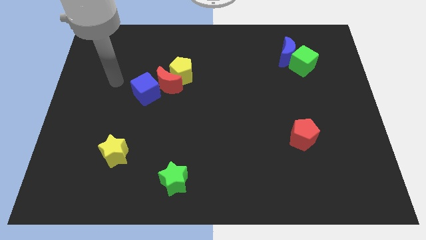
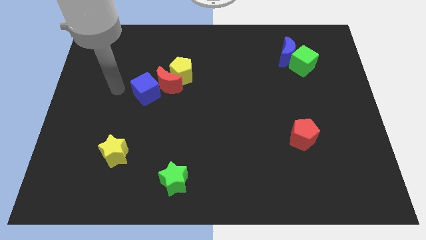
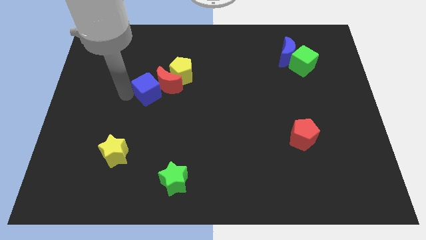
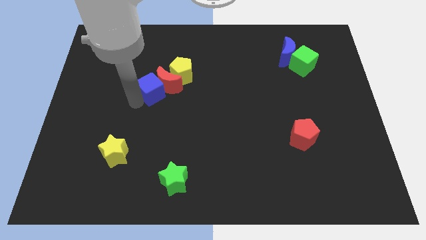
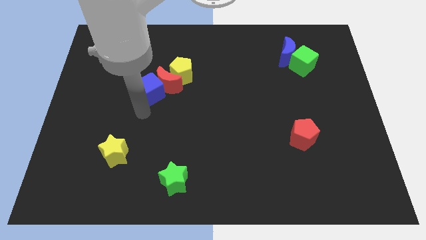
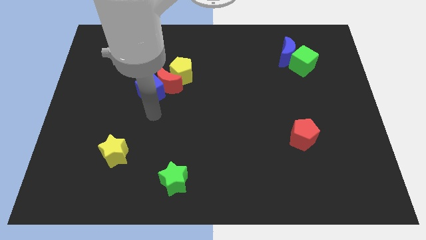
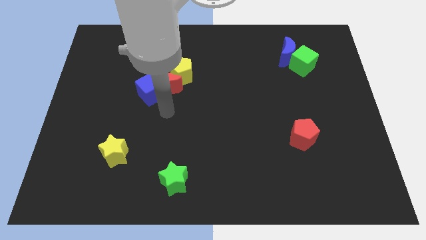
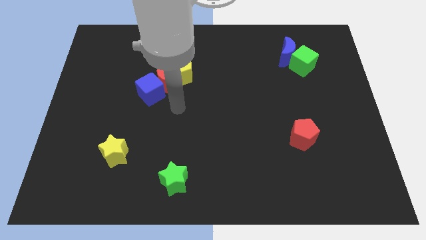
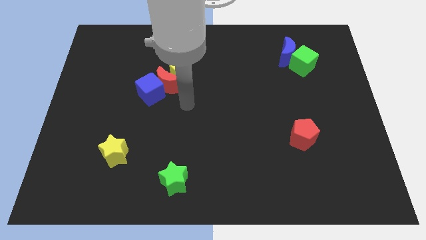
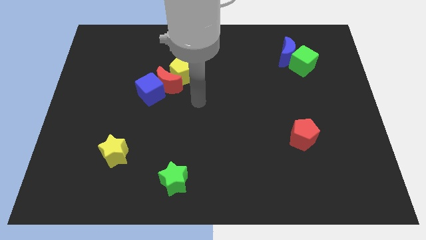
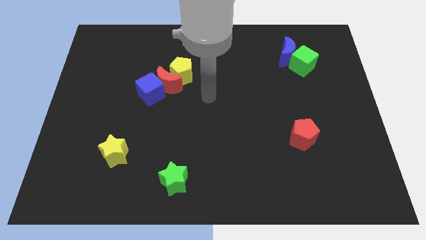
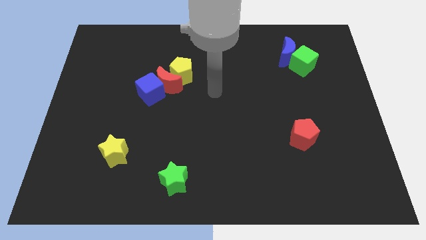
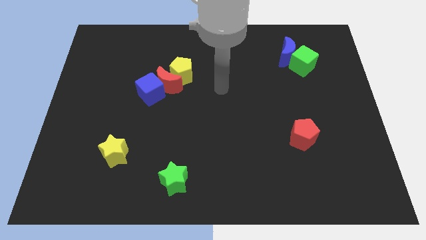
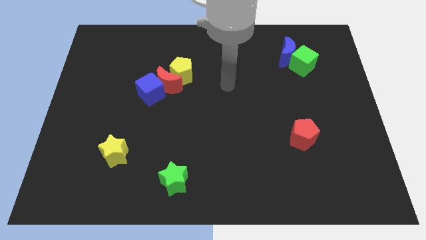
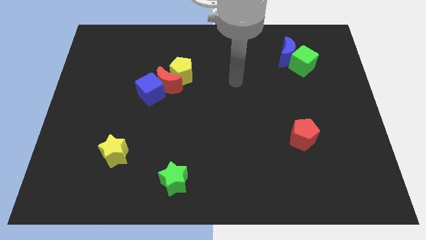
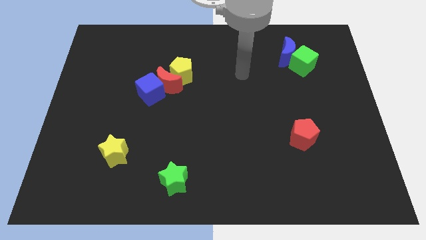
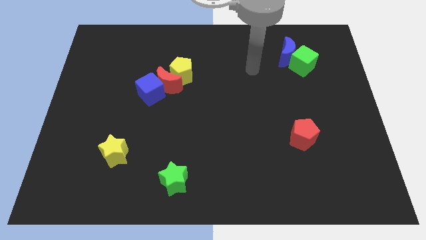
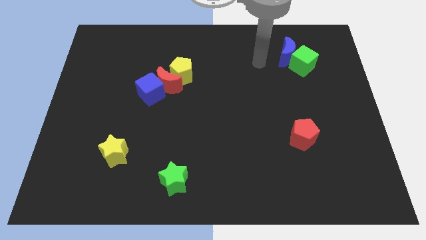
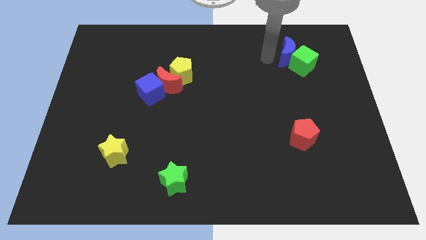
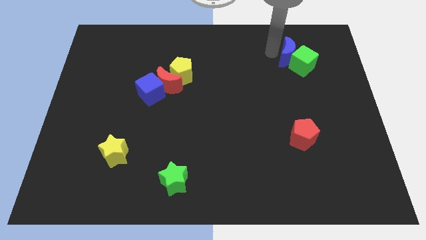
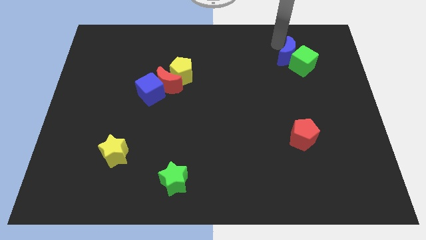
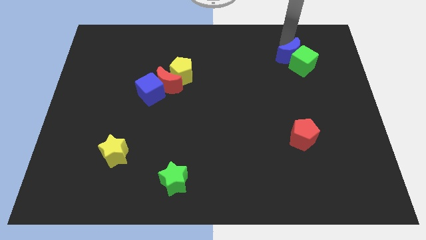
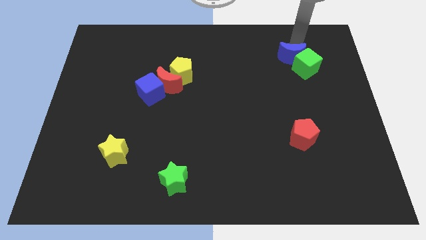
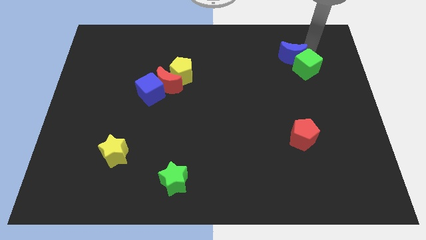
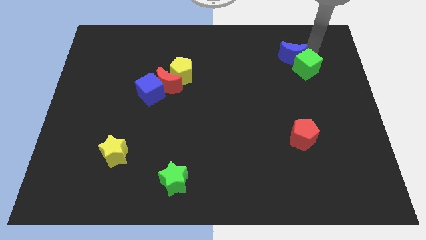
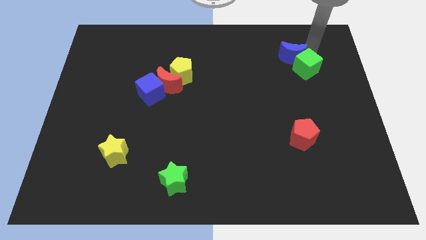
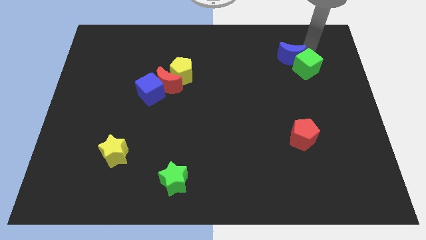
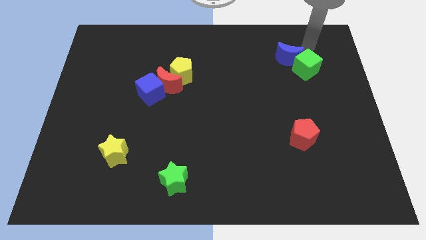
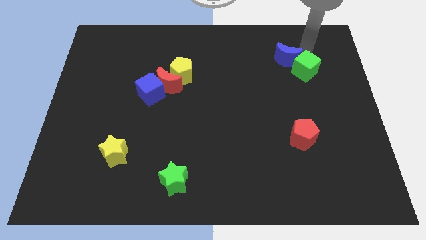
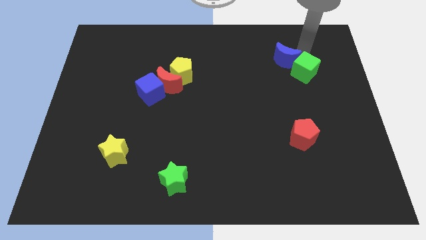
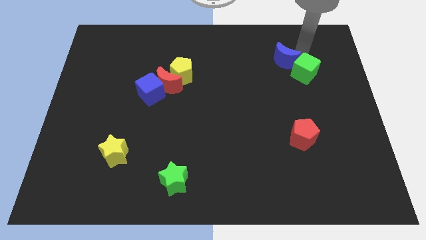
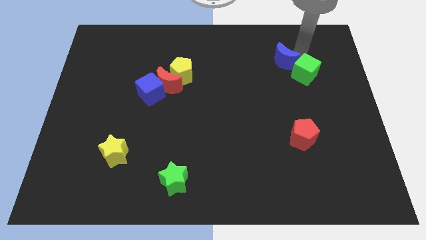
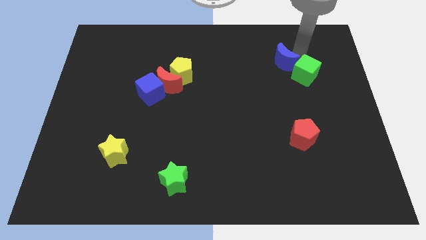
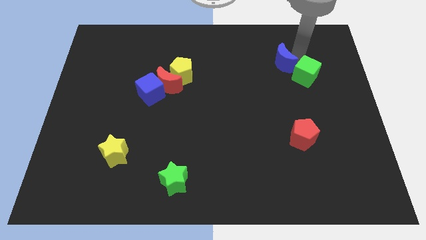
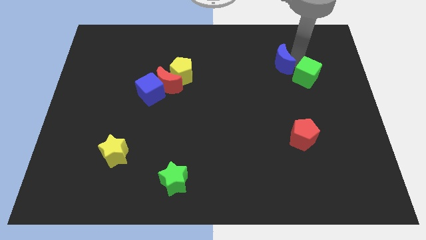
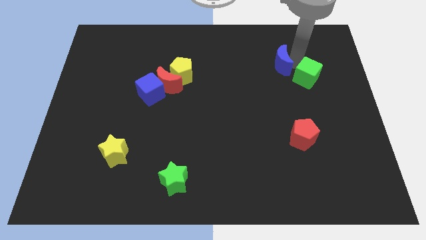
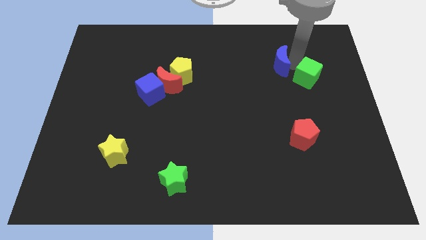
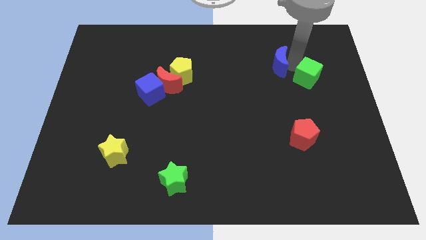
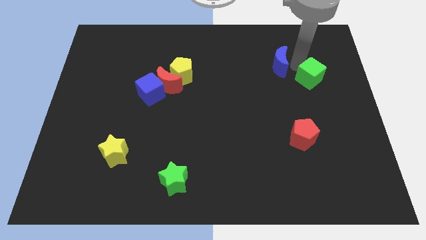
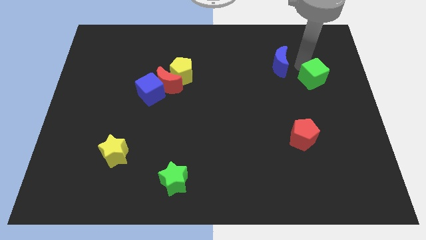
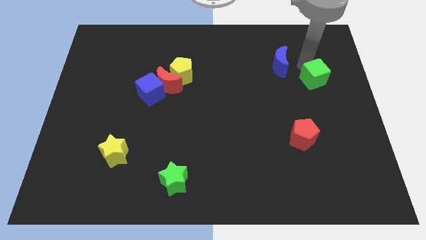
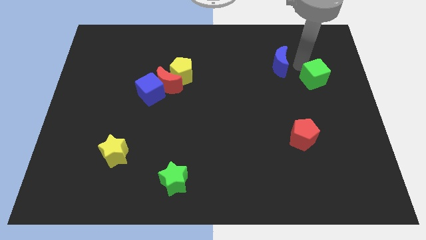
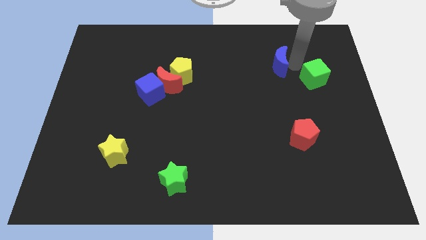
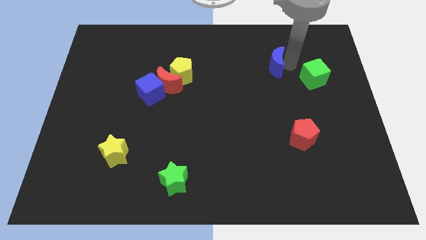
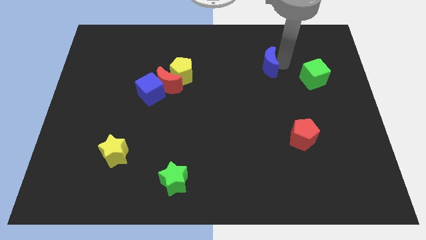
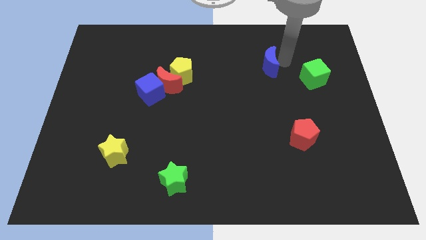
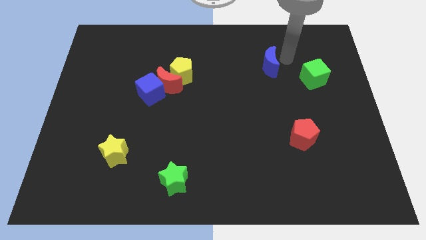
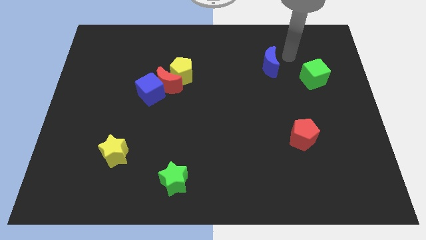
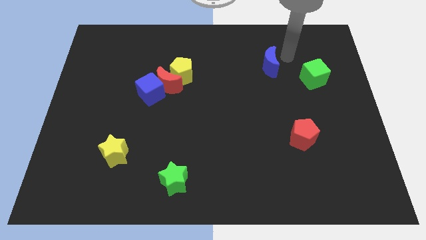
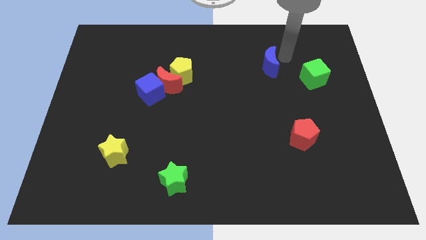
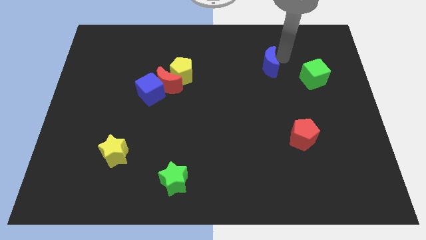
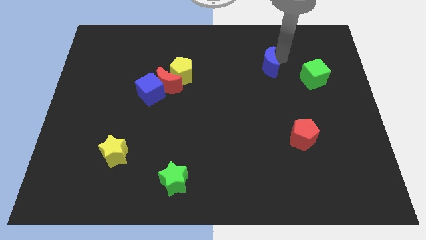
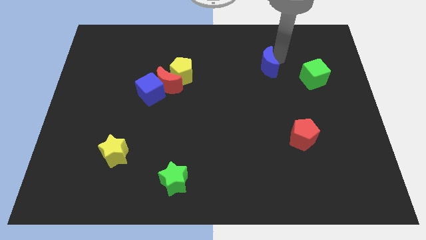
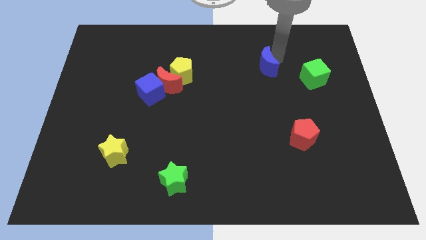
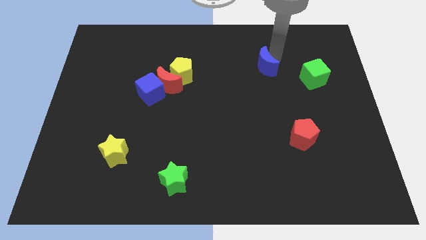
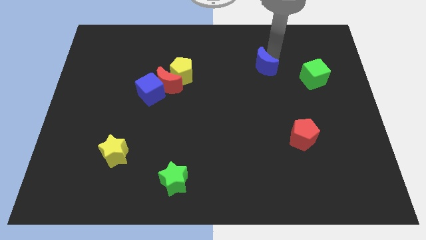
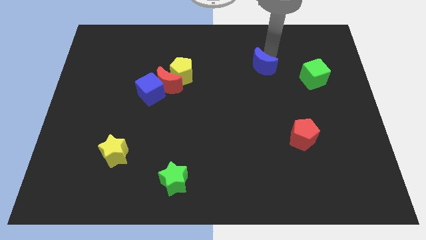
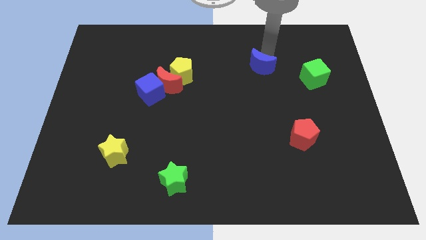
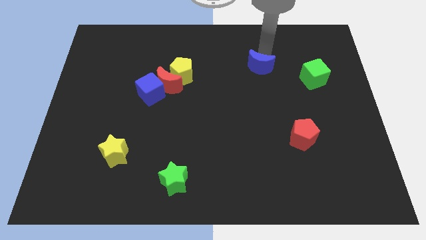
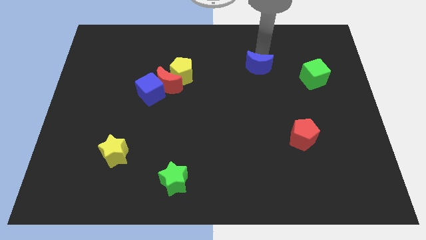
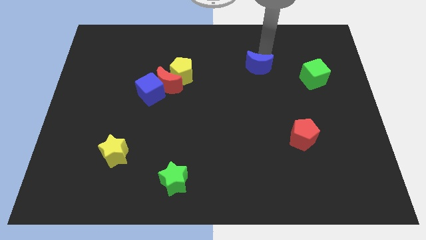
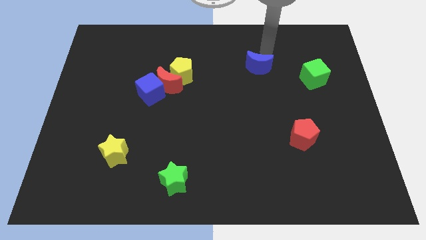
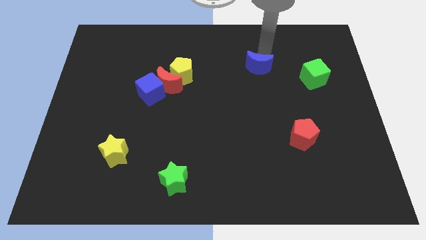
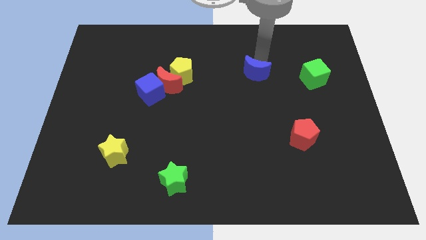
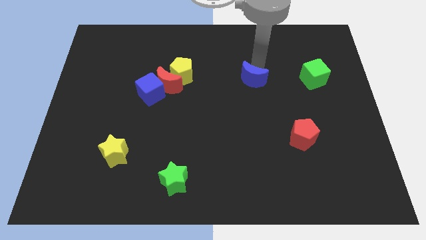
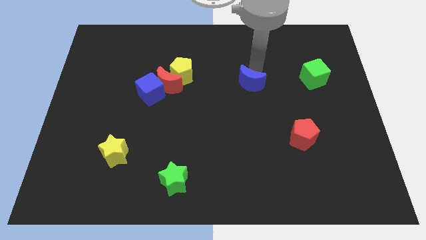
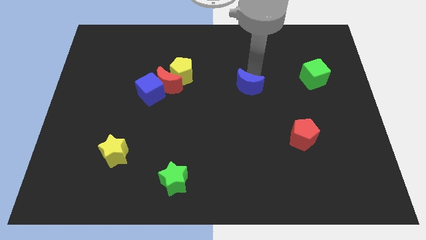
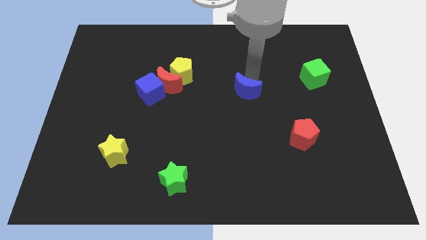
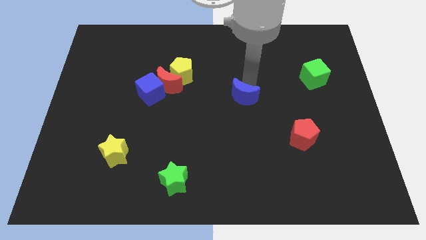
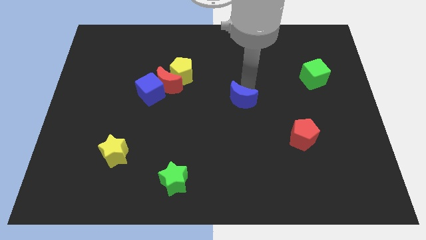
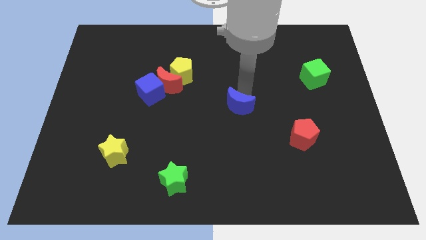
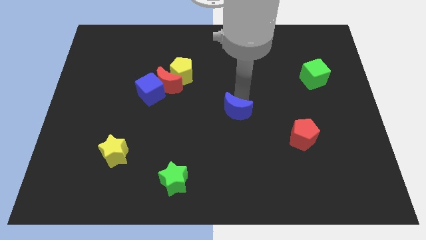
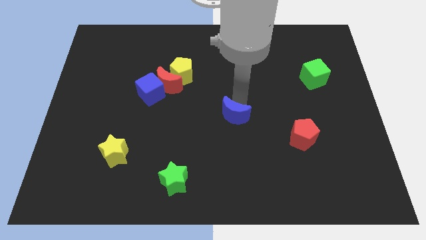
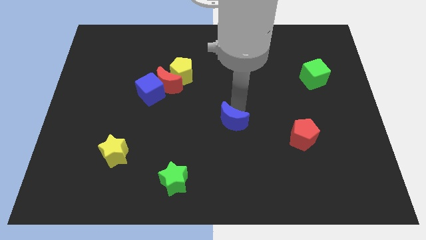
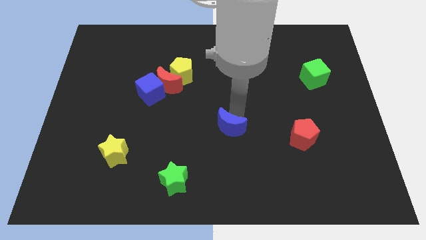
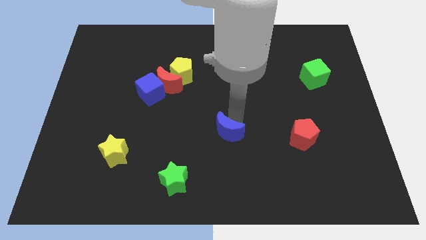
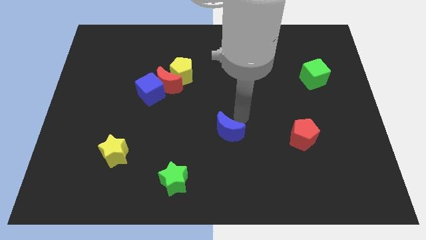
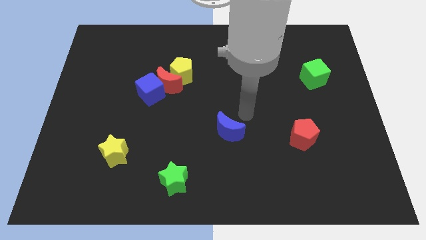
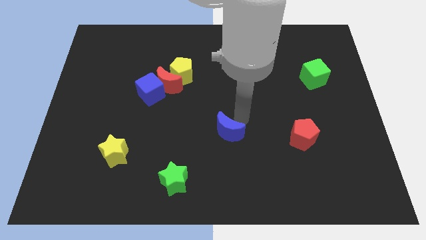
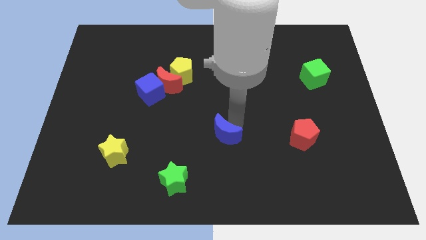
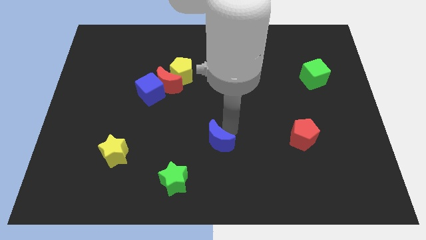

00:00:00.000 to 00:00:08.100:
put the blue moon to the top right of the green star
